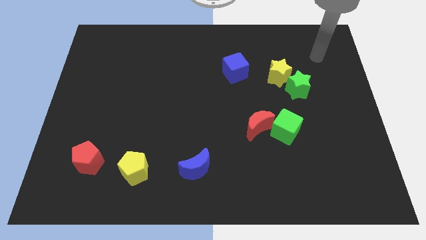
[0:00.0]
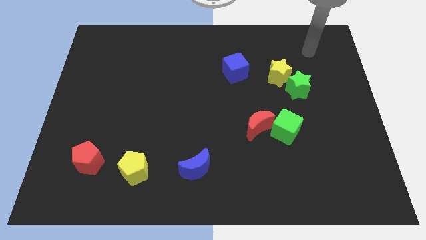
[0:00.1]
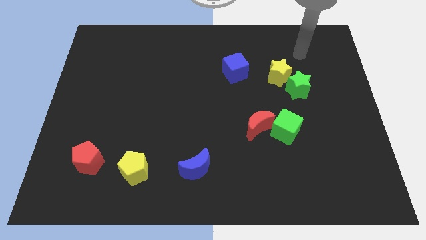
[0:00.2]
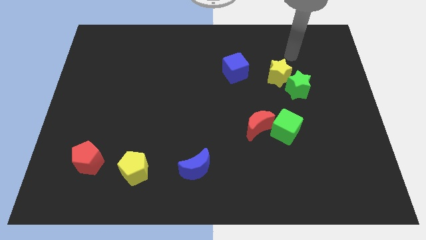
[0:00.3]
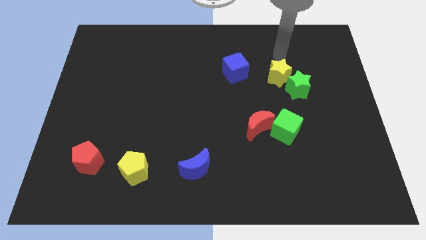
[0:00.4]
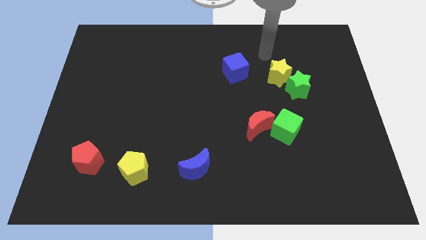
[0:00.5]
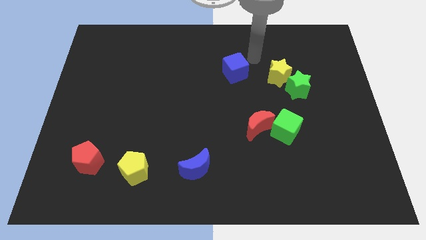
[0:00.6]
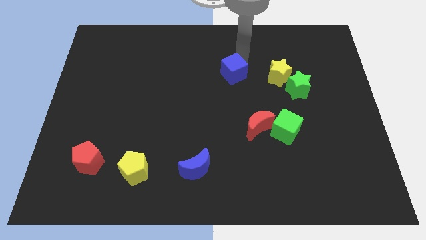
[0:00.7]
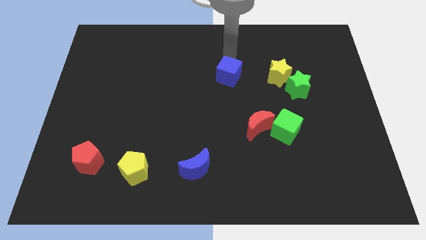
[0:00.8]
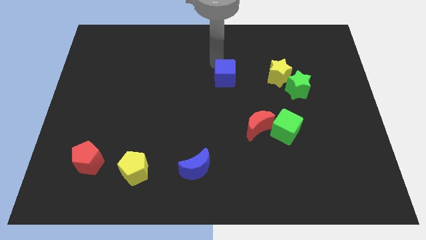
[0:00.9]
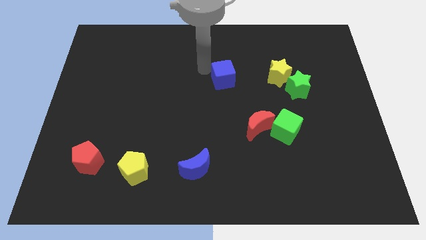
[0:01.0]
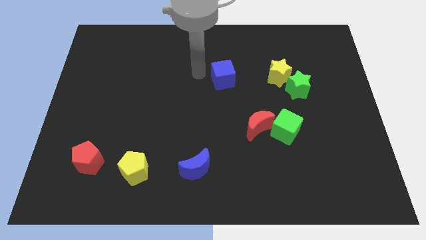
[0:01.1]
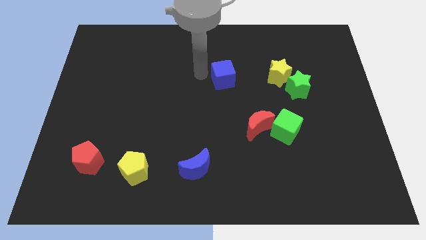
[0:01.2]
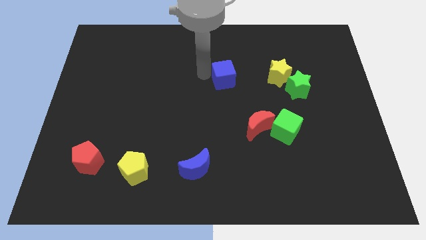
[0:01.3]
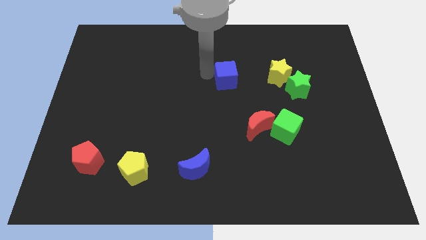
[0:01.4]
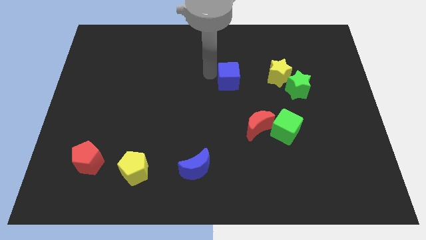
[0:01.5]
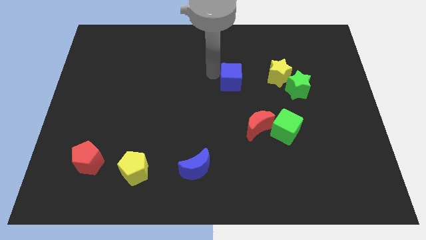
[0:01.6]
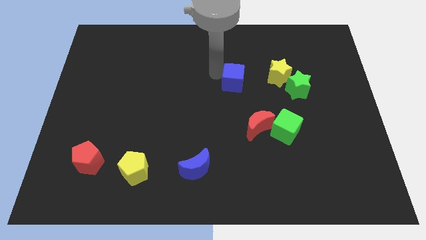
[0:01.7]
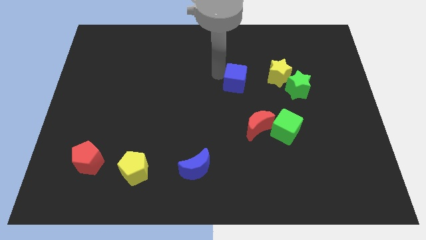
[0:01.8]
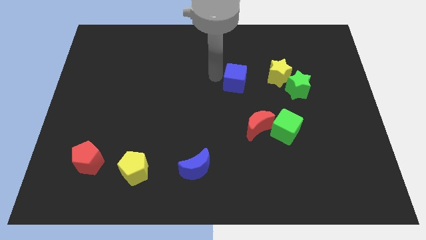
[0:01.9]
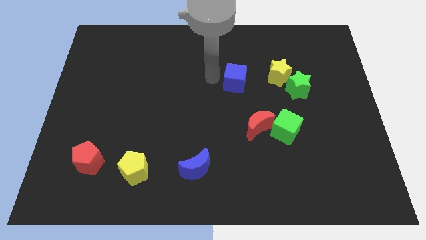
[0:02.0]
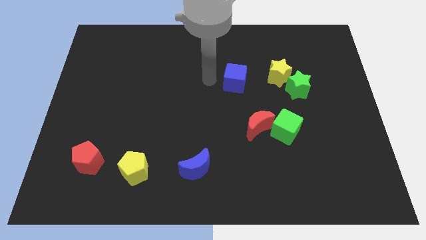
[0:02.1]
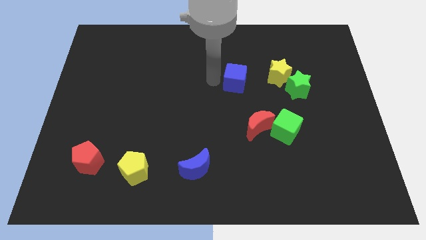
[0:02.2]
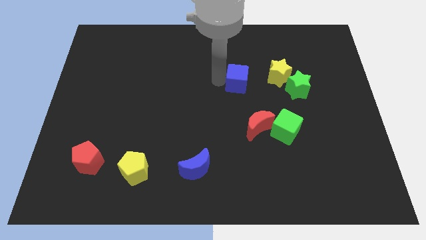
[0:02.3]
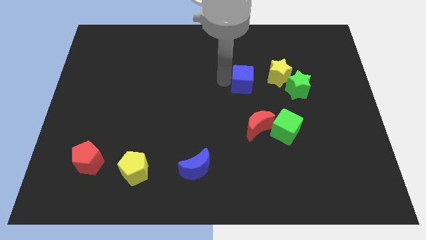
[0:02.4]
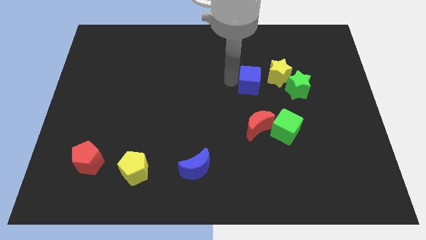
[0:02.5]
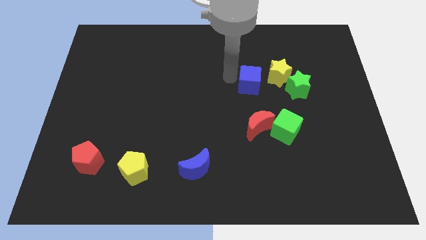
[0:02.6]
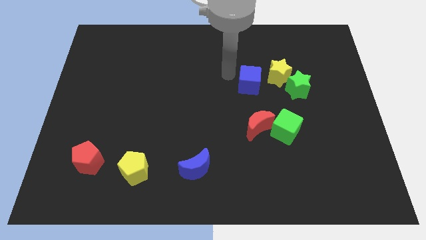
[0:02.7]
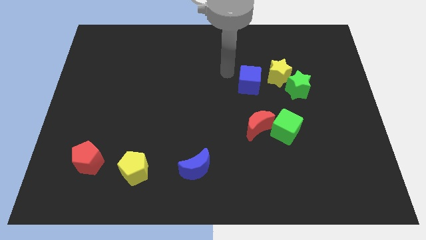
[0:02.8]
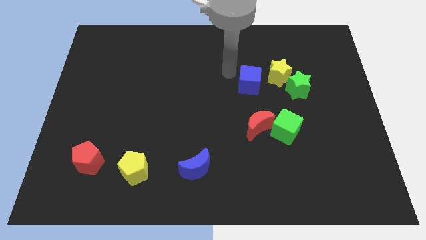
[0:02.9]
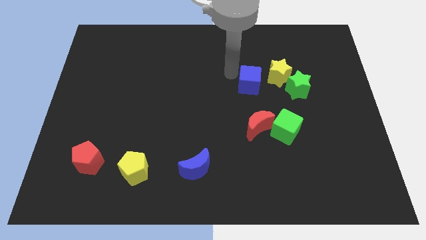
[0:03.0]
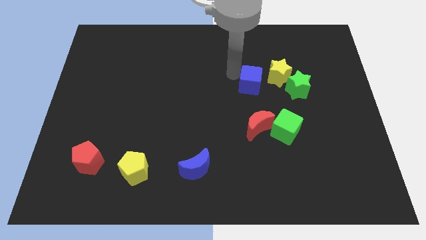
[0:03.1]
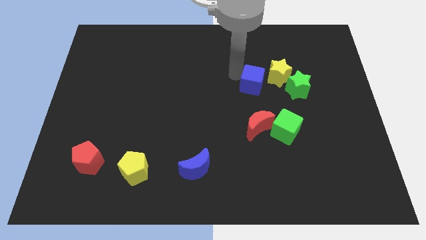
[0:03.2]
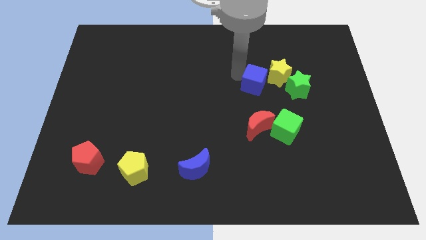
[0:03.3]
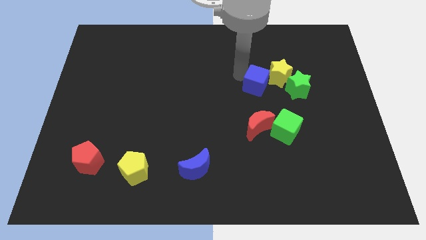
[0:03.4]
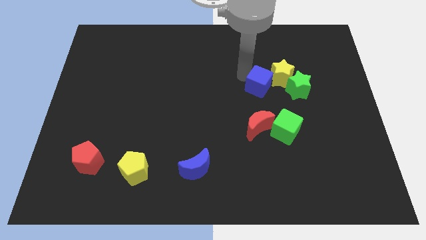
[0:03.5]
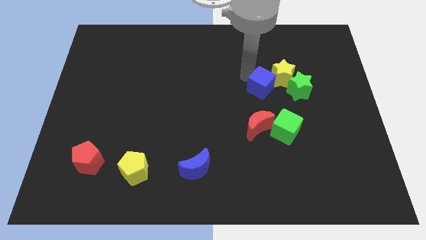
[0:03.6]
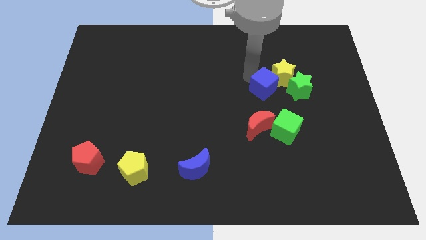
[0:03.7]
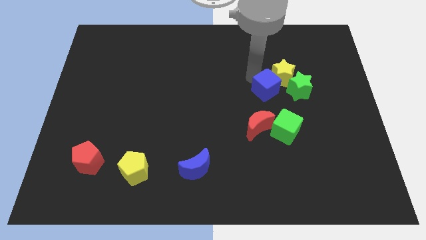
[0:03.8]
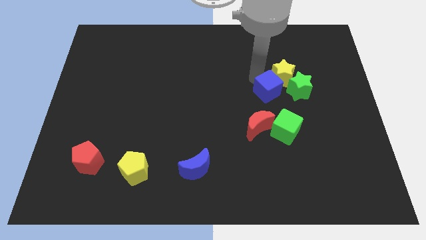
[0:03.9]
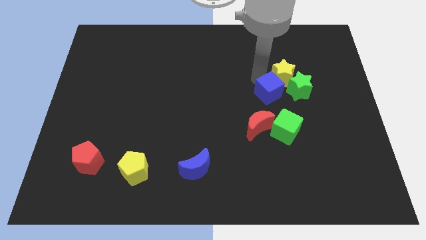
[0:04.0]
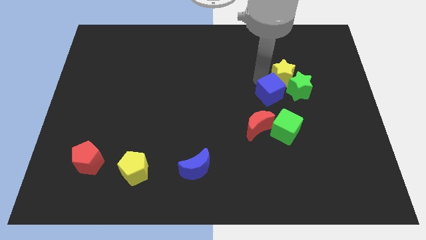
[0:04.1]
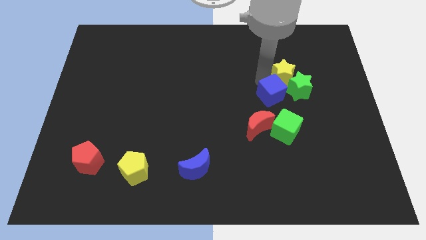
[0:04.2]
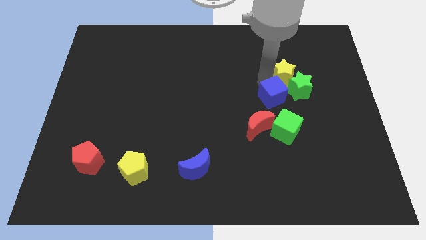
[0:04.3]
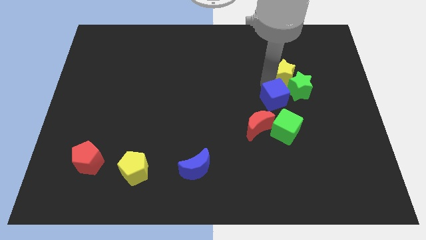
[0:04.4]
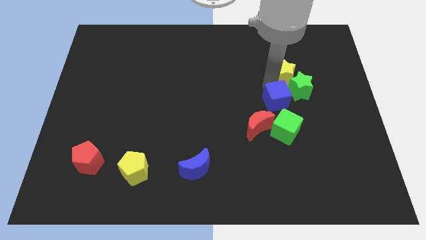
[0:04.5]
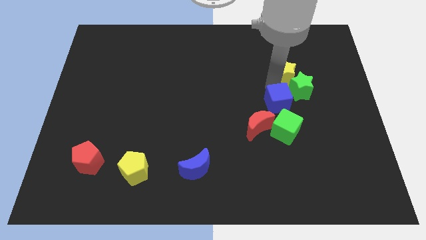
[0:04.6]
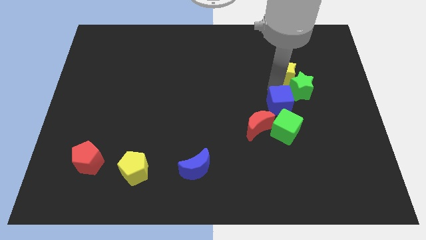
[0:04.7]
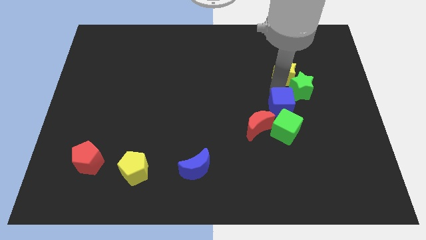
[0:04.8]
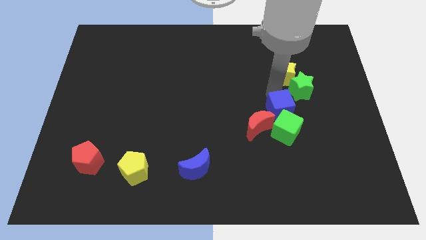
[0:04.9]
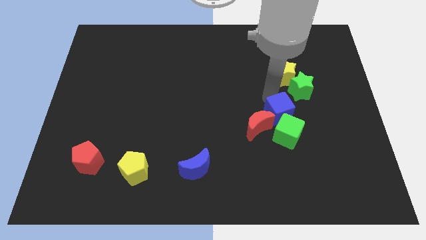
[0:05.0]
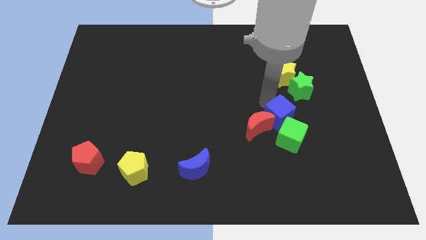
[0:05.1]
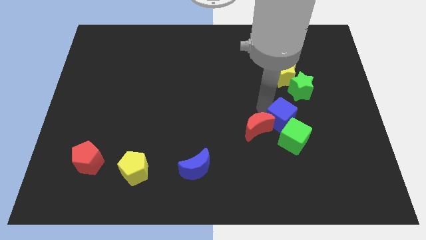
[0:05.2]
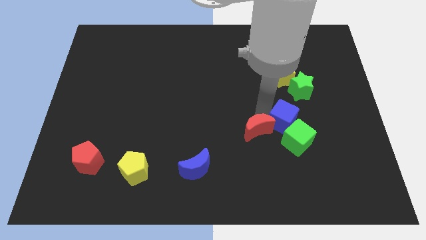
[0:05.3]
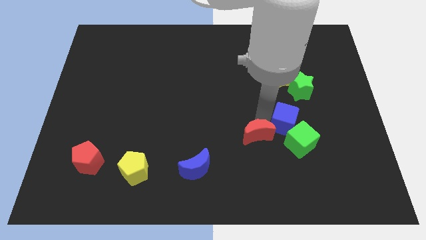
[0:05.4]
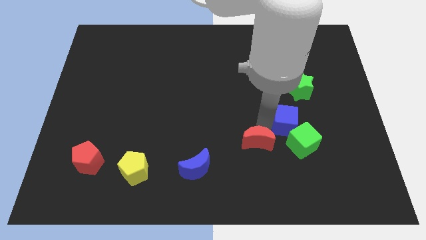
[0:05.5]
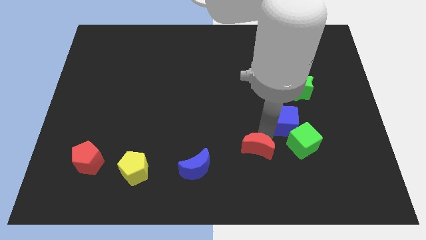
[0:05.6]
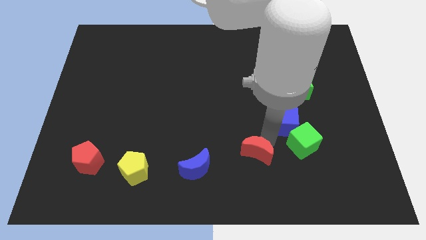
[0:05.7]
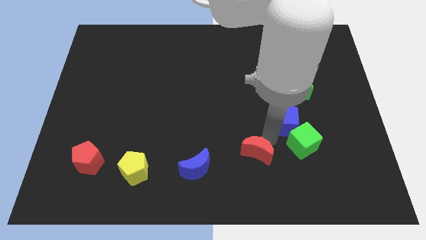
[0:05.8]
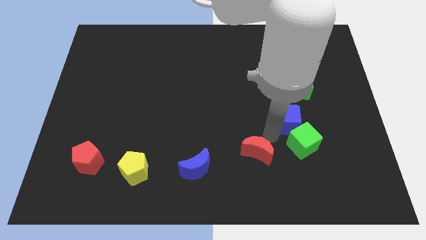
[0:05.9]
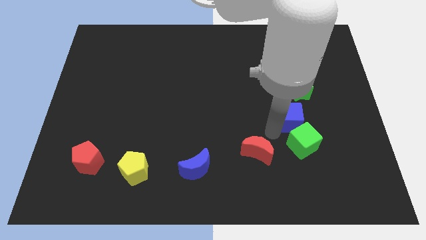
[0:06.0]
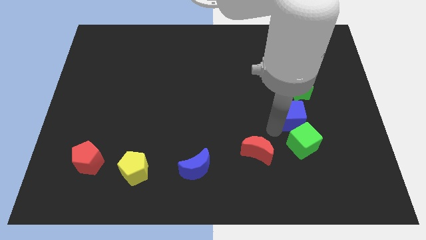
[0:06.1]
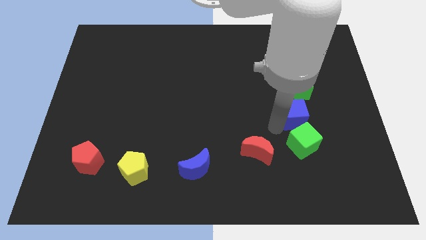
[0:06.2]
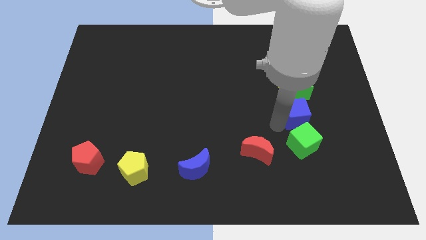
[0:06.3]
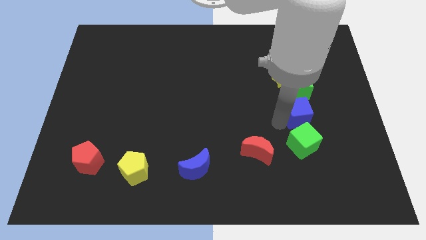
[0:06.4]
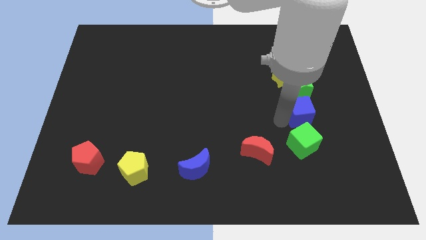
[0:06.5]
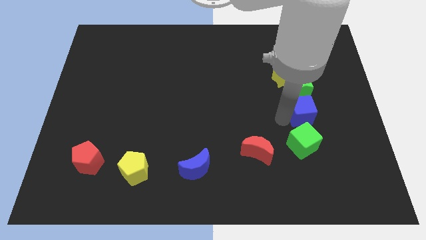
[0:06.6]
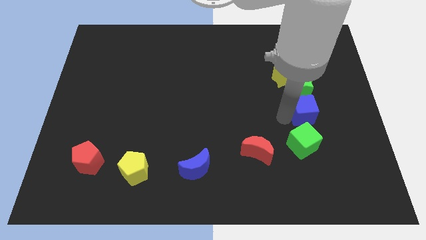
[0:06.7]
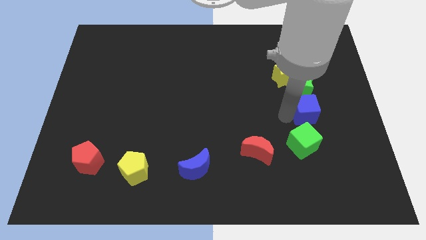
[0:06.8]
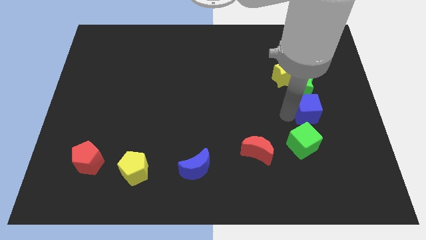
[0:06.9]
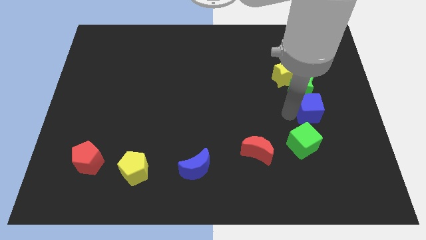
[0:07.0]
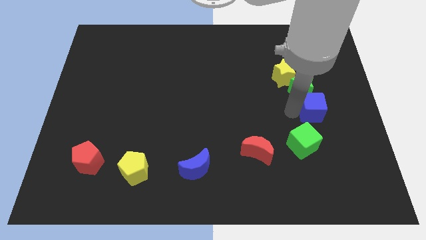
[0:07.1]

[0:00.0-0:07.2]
move the blue cube to the bottom right side of the yellow star
